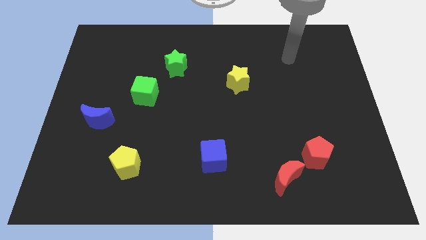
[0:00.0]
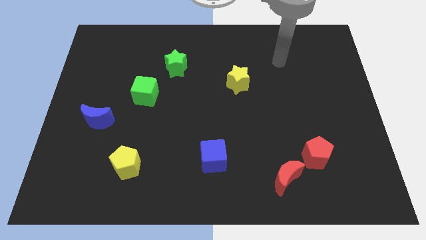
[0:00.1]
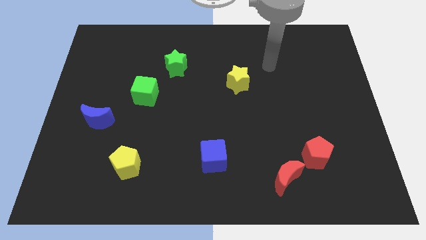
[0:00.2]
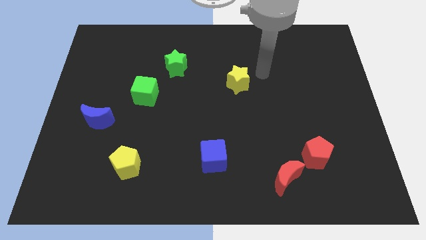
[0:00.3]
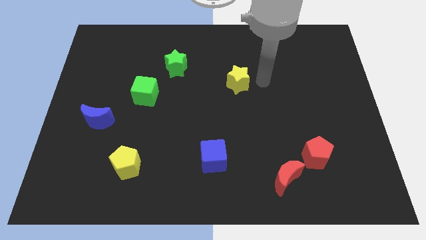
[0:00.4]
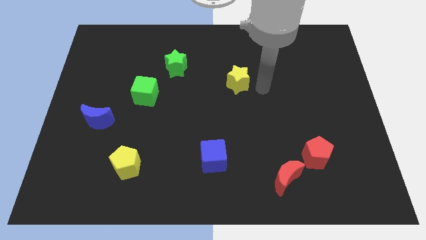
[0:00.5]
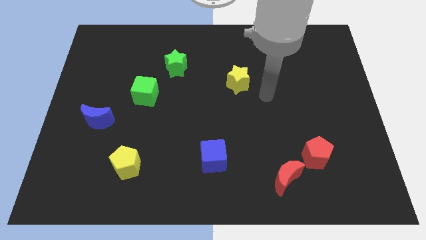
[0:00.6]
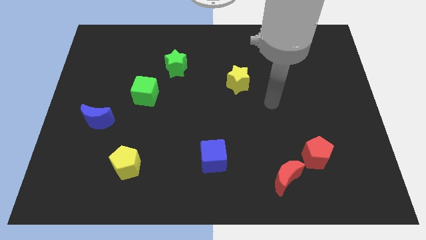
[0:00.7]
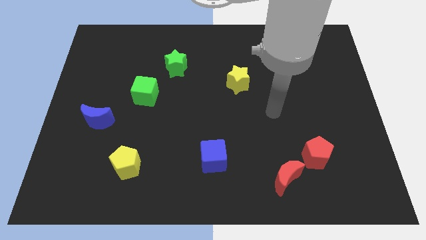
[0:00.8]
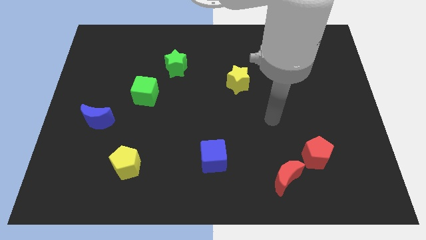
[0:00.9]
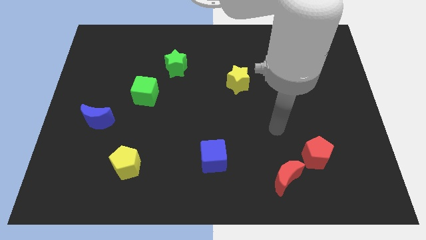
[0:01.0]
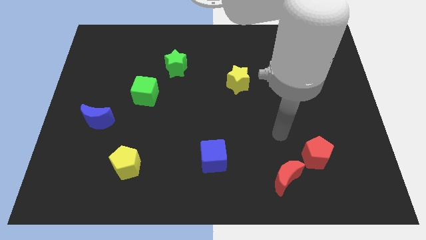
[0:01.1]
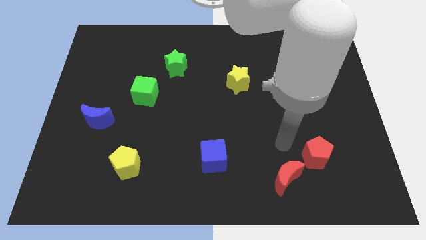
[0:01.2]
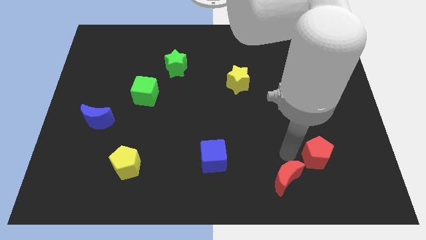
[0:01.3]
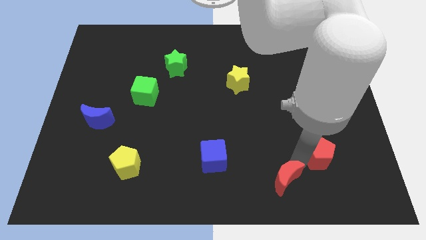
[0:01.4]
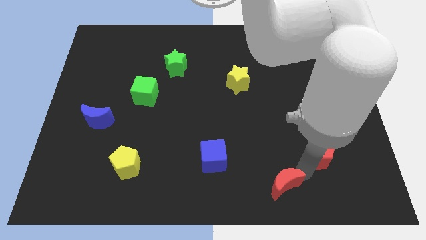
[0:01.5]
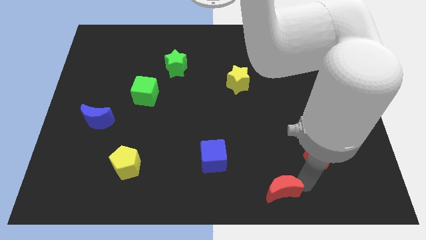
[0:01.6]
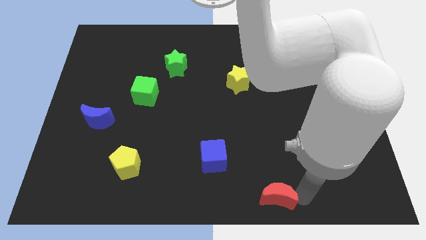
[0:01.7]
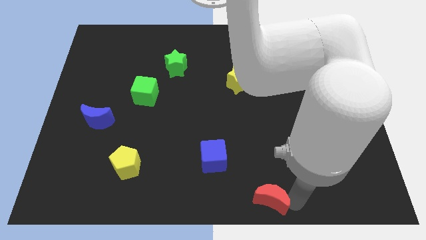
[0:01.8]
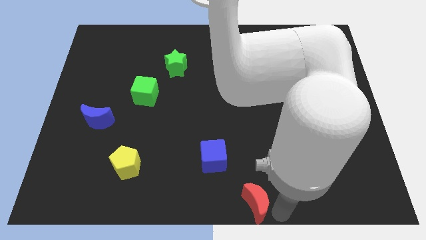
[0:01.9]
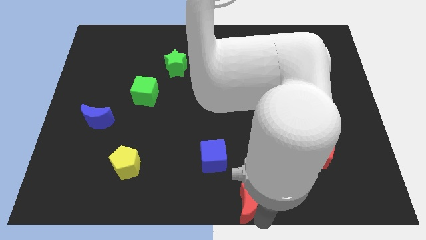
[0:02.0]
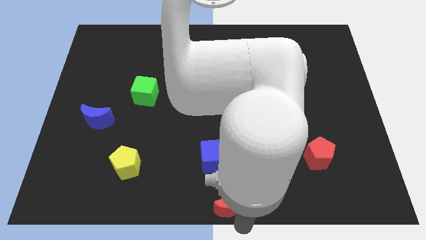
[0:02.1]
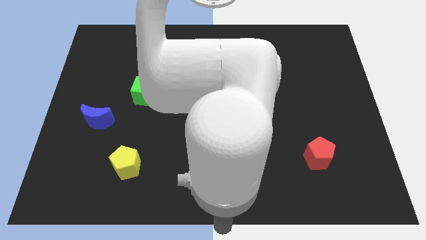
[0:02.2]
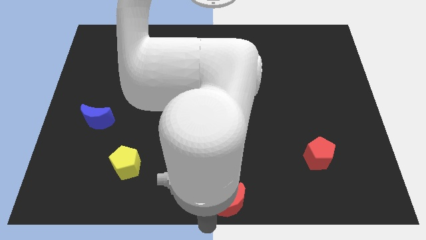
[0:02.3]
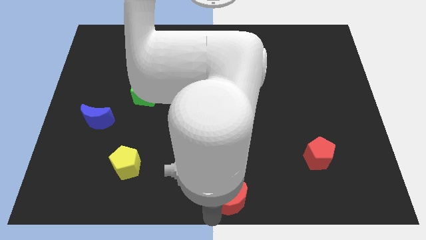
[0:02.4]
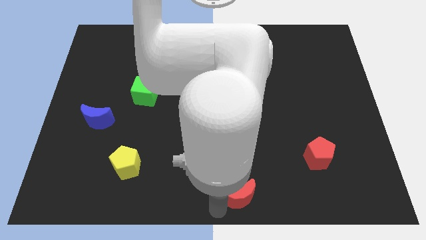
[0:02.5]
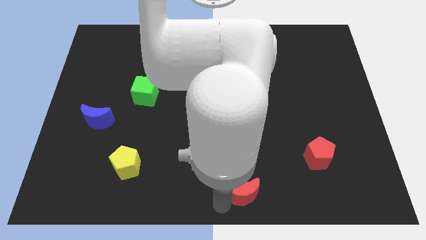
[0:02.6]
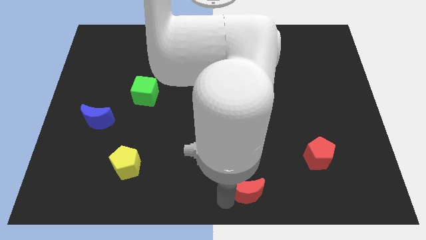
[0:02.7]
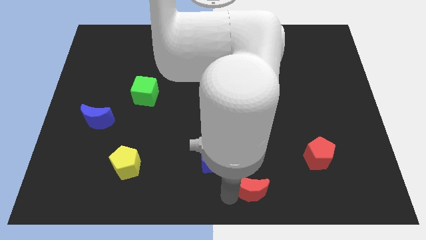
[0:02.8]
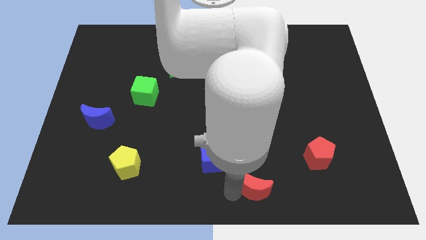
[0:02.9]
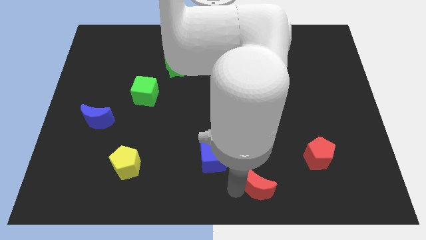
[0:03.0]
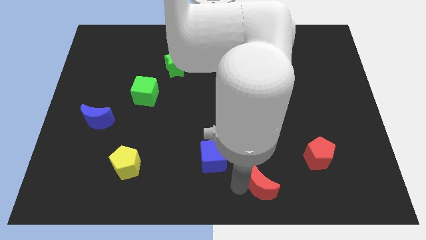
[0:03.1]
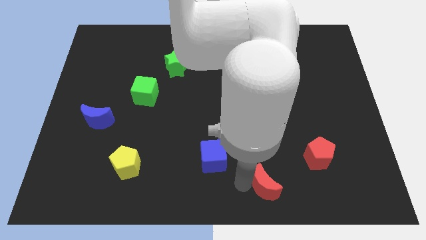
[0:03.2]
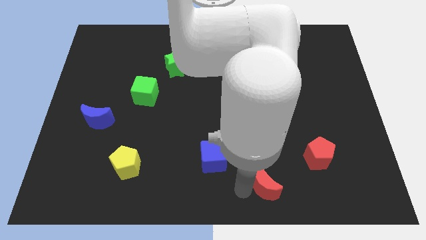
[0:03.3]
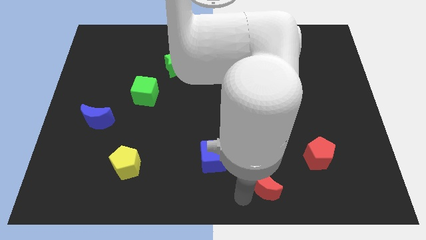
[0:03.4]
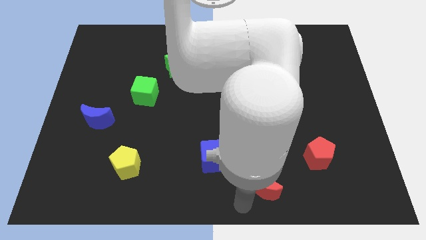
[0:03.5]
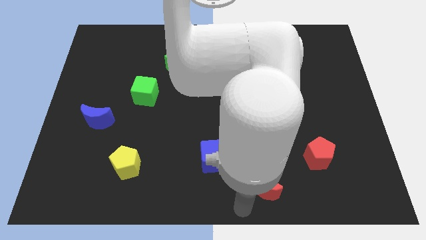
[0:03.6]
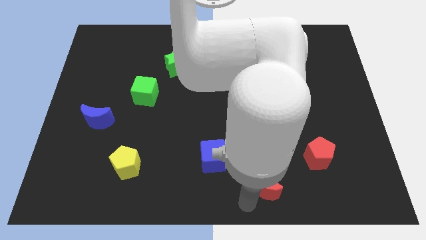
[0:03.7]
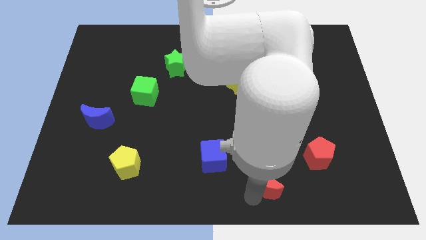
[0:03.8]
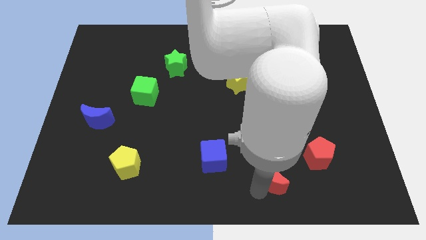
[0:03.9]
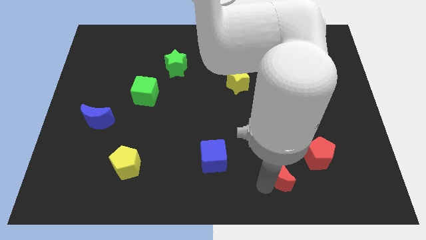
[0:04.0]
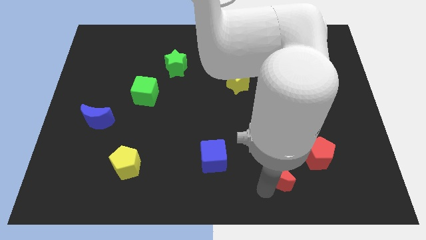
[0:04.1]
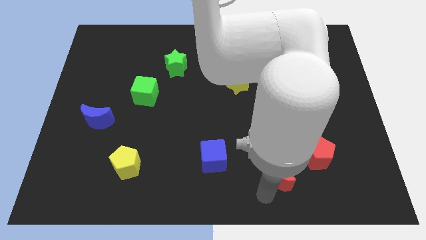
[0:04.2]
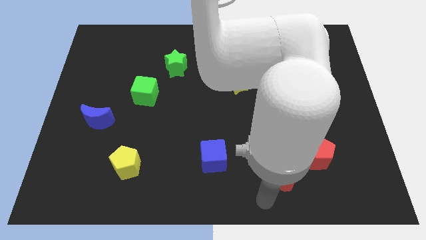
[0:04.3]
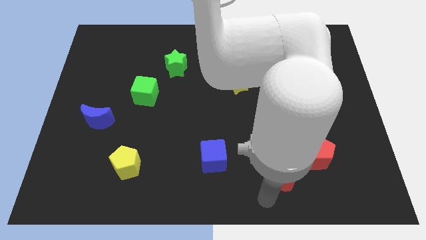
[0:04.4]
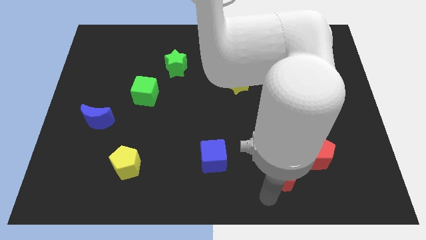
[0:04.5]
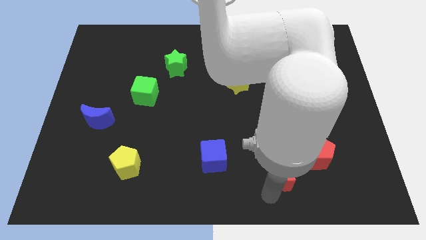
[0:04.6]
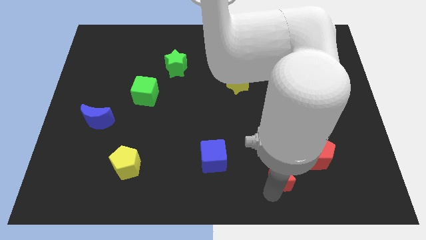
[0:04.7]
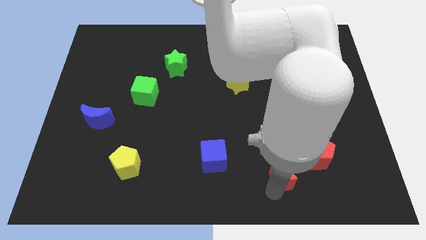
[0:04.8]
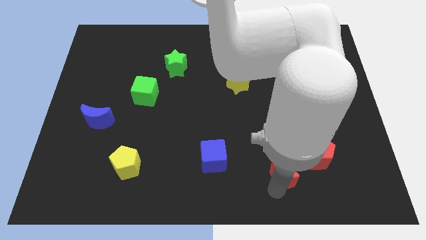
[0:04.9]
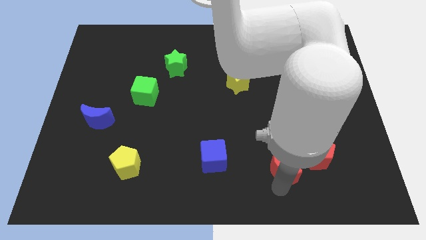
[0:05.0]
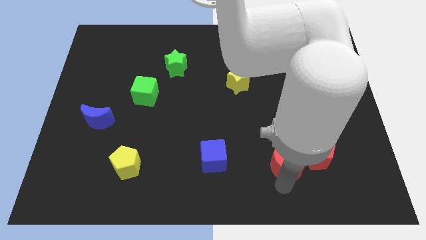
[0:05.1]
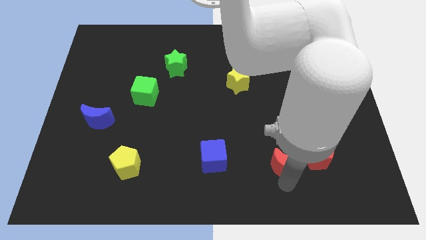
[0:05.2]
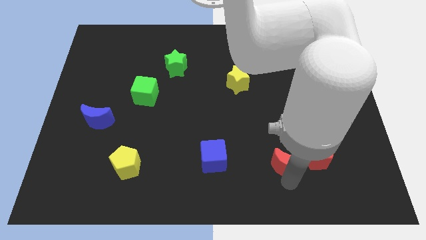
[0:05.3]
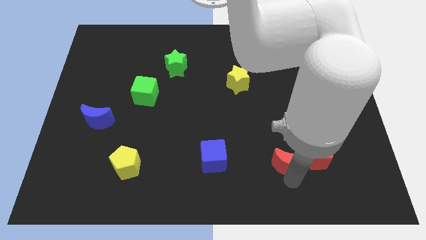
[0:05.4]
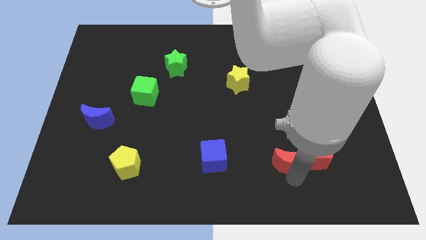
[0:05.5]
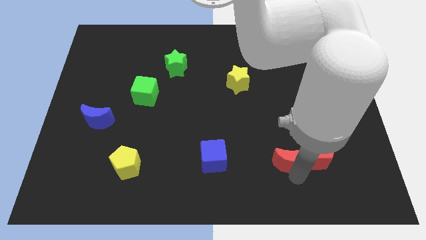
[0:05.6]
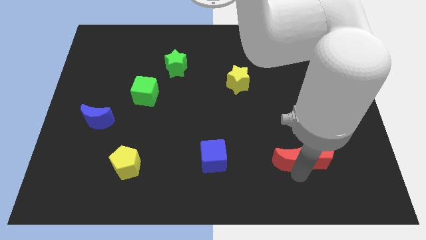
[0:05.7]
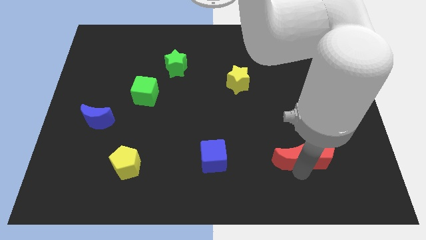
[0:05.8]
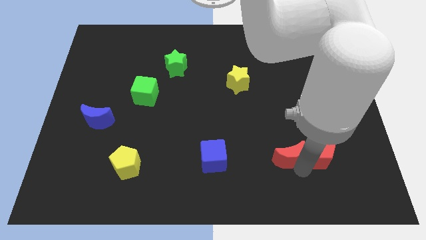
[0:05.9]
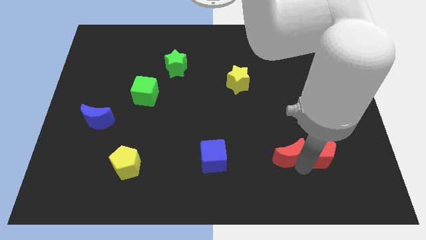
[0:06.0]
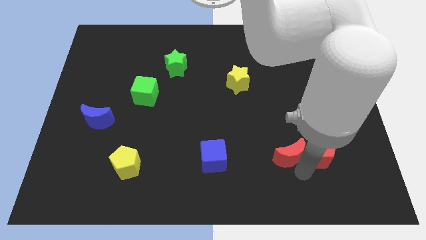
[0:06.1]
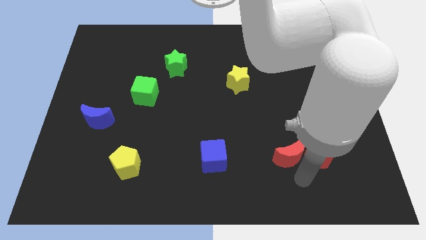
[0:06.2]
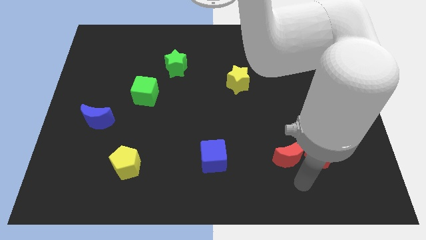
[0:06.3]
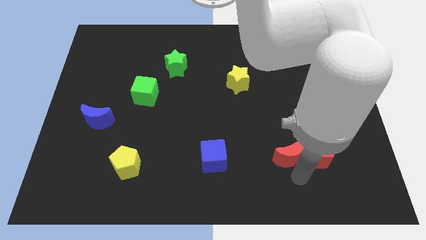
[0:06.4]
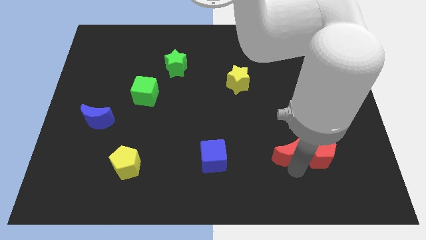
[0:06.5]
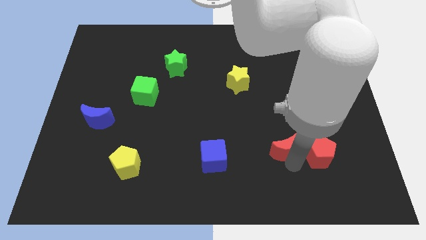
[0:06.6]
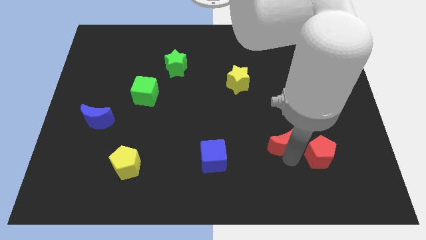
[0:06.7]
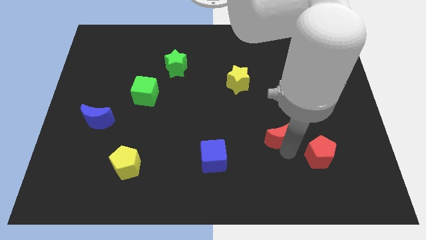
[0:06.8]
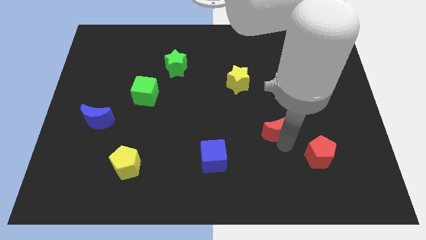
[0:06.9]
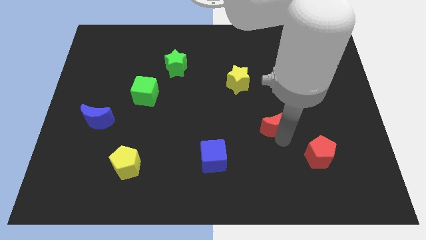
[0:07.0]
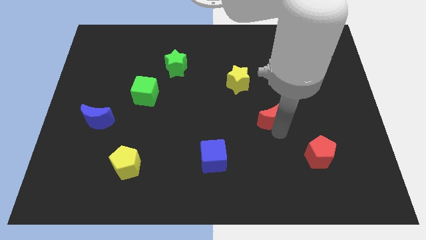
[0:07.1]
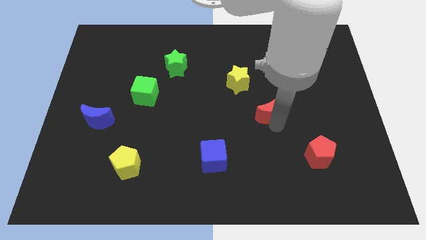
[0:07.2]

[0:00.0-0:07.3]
push the red moon diagonally down and to the right of the yellow star

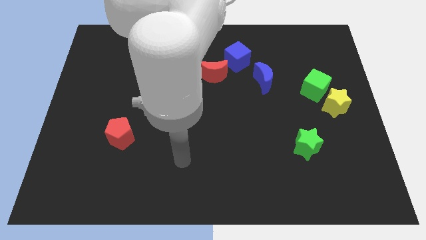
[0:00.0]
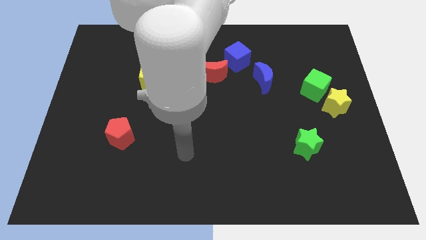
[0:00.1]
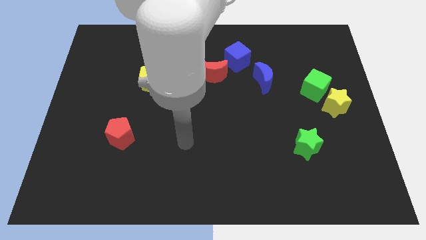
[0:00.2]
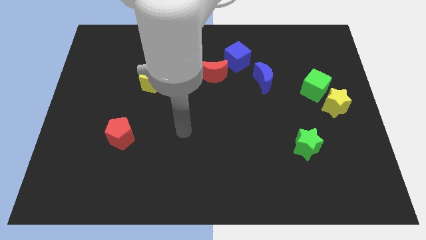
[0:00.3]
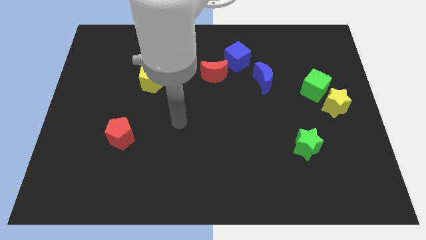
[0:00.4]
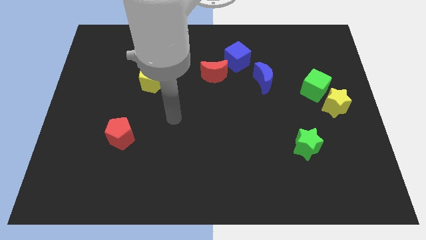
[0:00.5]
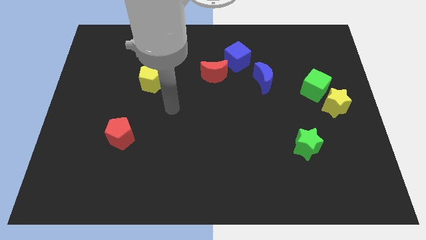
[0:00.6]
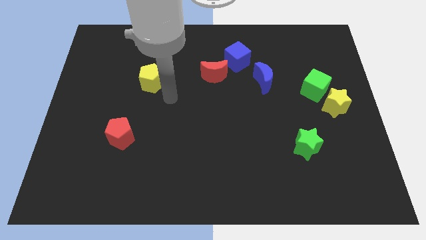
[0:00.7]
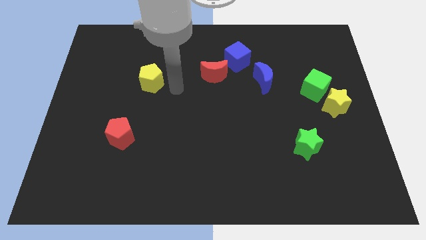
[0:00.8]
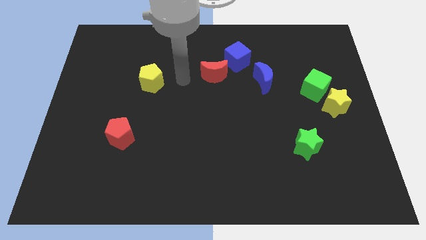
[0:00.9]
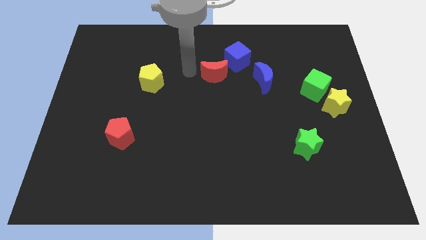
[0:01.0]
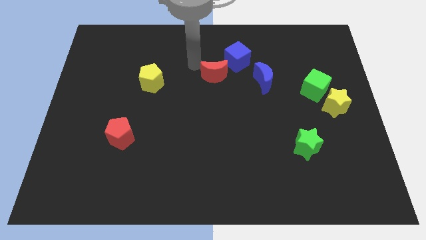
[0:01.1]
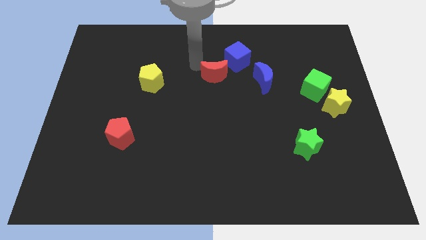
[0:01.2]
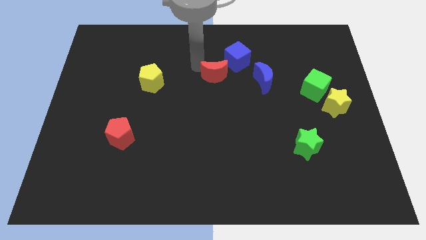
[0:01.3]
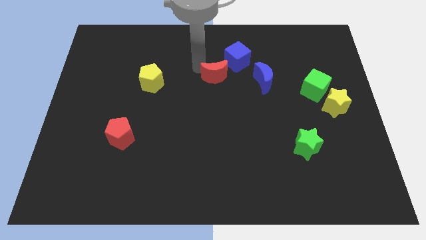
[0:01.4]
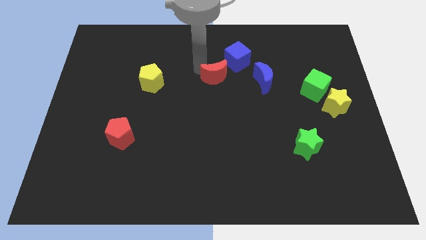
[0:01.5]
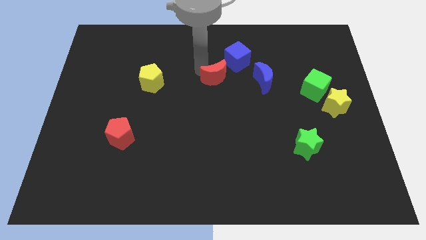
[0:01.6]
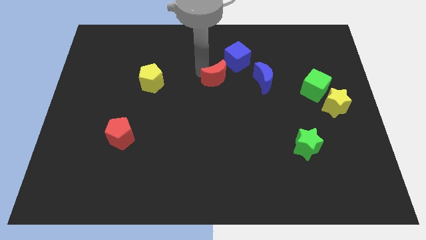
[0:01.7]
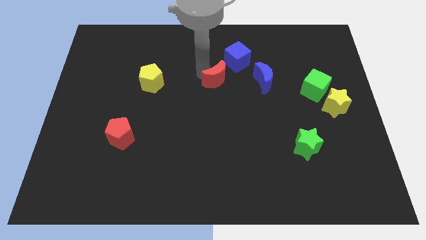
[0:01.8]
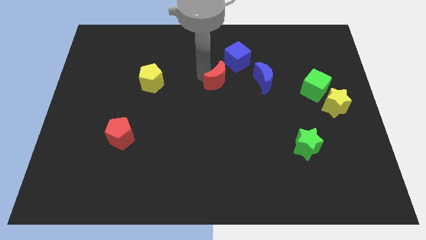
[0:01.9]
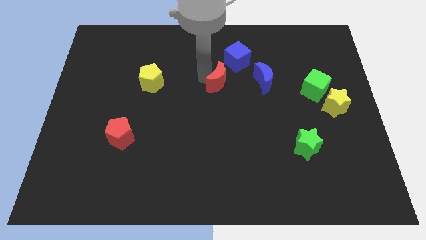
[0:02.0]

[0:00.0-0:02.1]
move the red moon to the bottom of the blue cube
